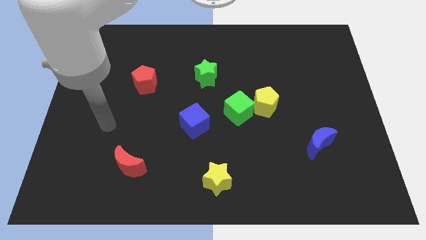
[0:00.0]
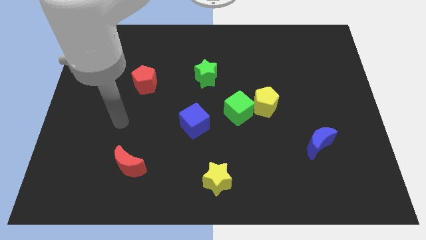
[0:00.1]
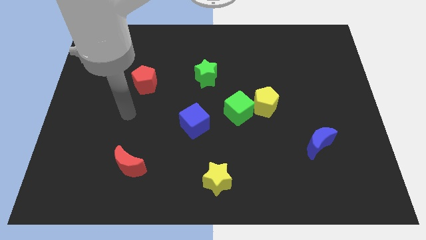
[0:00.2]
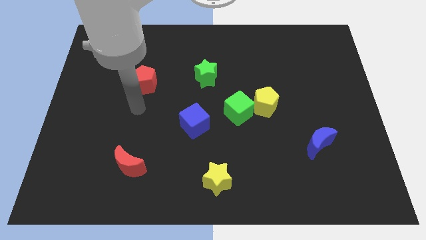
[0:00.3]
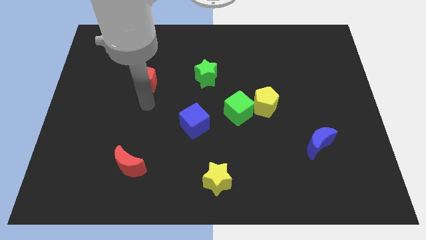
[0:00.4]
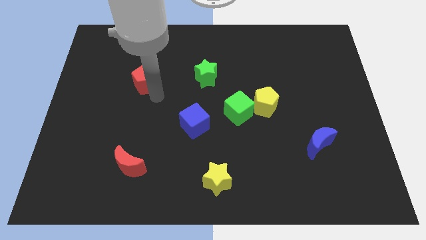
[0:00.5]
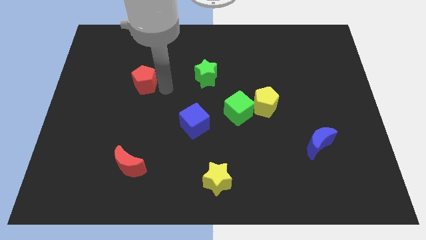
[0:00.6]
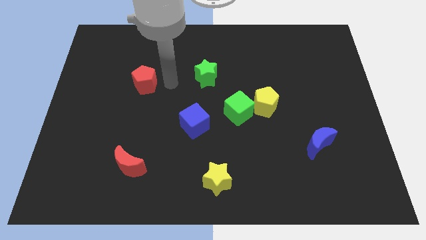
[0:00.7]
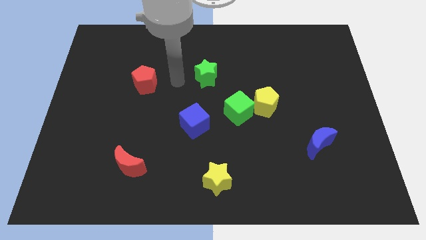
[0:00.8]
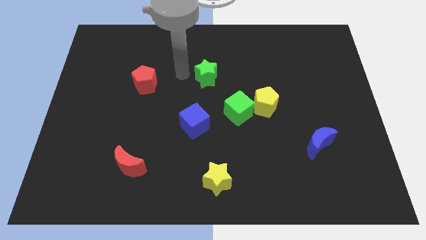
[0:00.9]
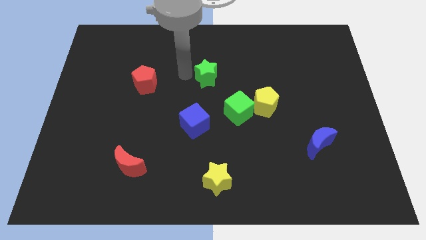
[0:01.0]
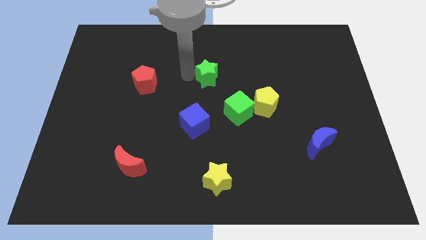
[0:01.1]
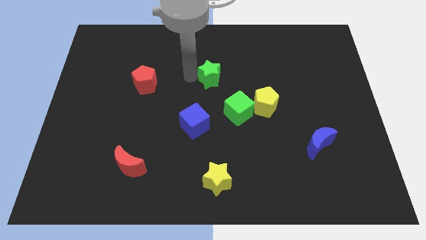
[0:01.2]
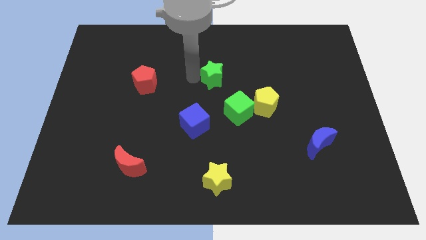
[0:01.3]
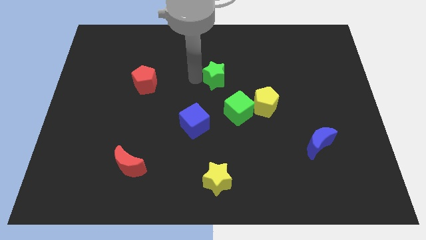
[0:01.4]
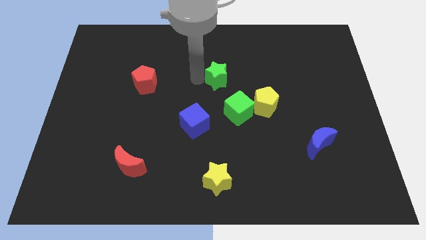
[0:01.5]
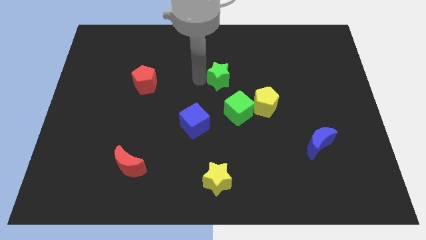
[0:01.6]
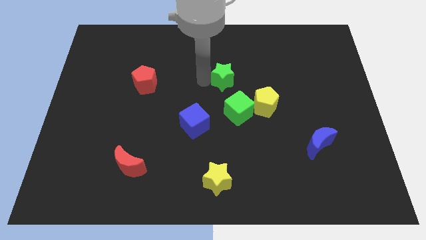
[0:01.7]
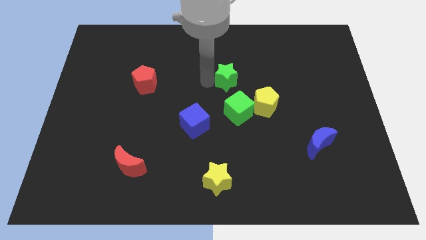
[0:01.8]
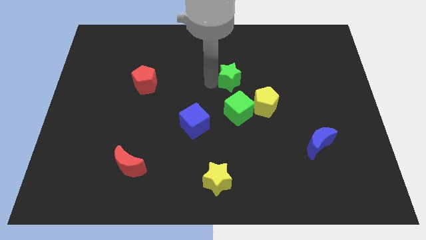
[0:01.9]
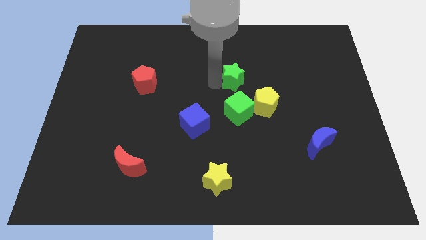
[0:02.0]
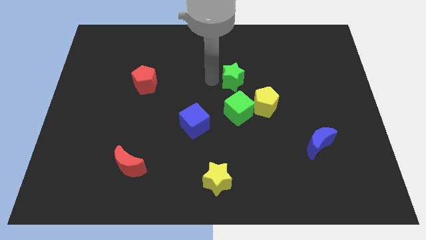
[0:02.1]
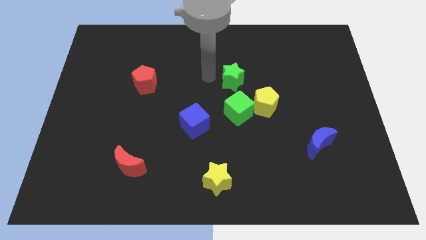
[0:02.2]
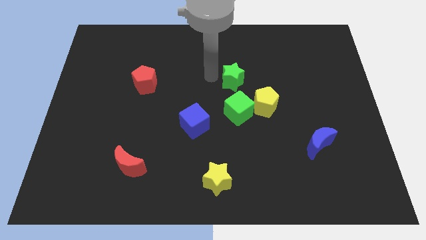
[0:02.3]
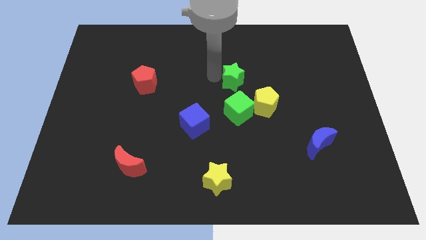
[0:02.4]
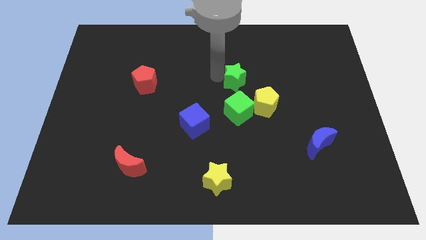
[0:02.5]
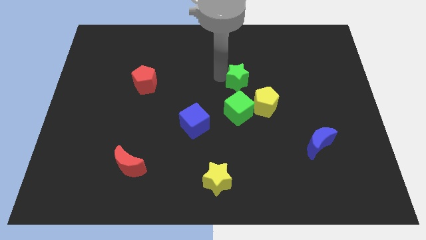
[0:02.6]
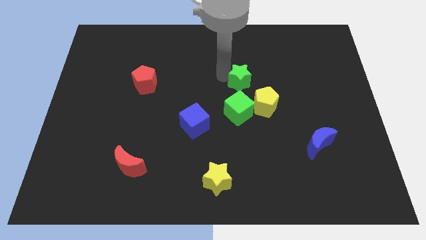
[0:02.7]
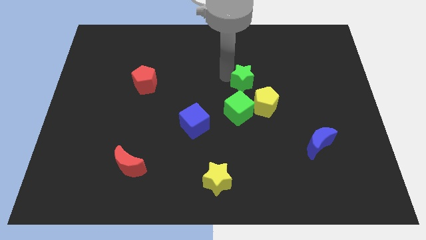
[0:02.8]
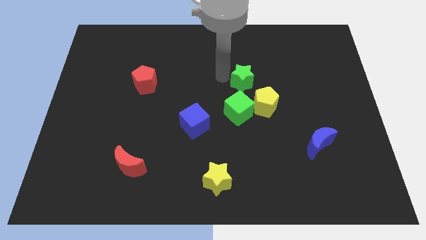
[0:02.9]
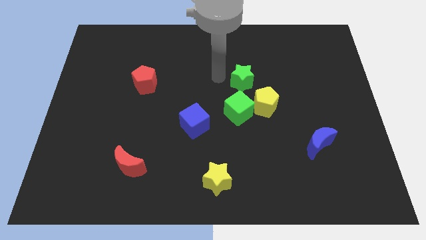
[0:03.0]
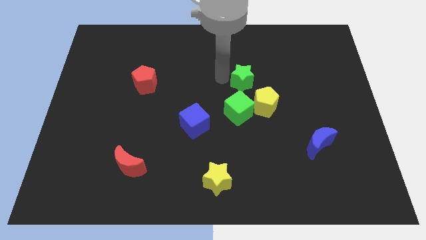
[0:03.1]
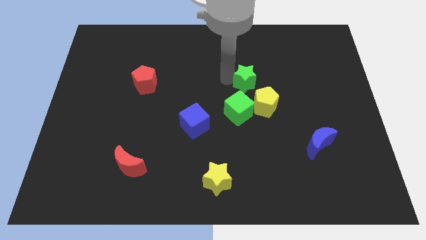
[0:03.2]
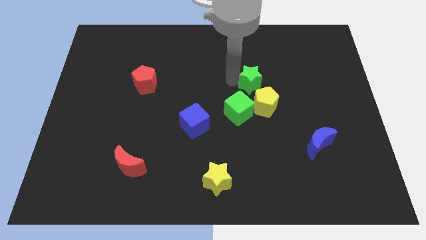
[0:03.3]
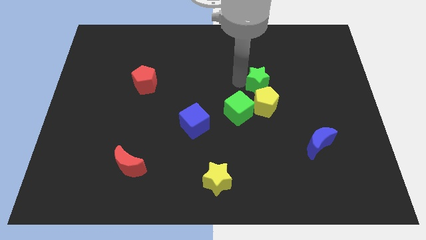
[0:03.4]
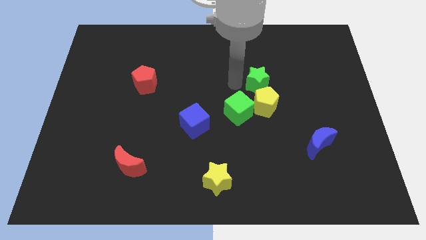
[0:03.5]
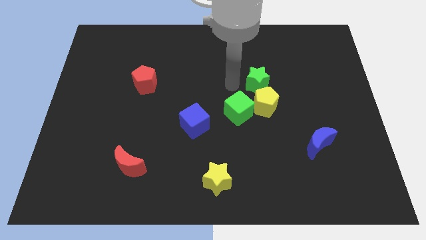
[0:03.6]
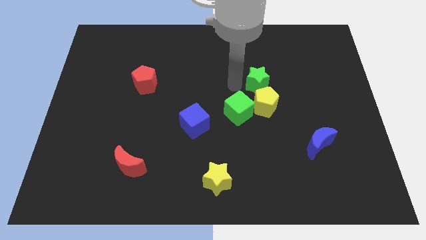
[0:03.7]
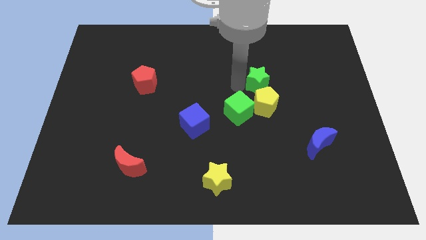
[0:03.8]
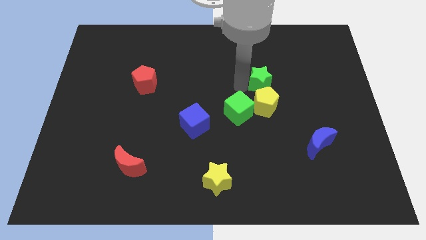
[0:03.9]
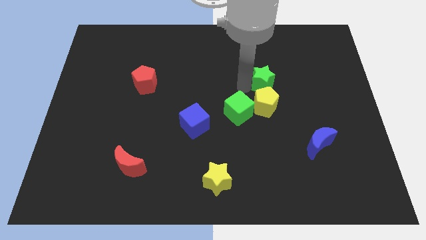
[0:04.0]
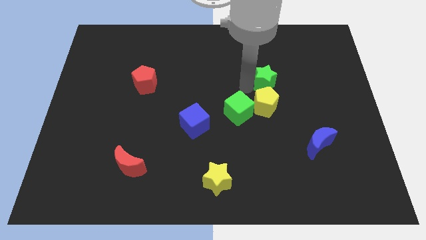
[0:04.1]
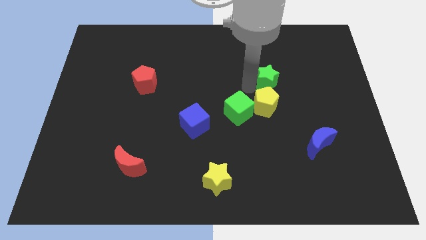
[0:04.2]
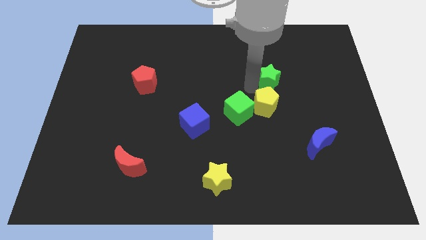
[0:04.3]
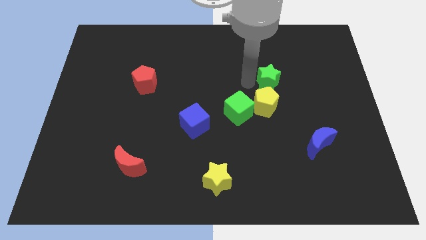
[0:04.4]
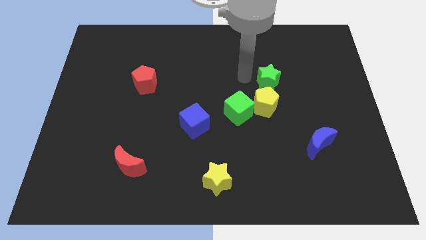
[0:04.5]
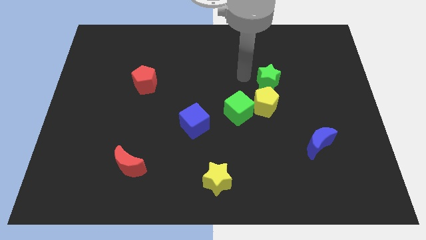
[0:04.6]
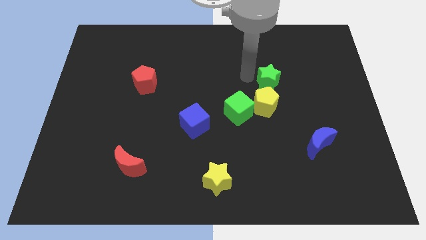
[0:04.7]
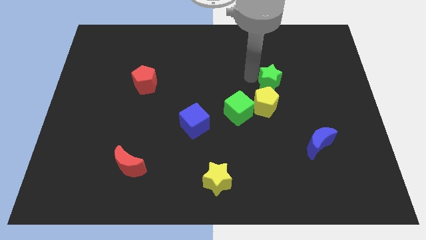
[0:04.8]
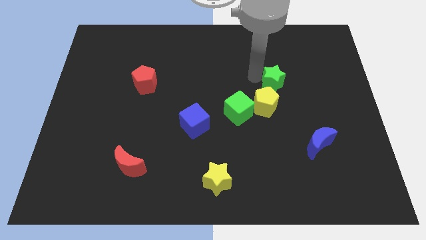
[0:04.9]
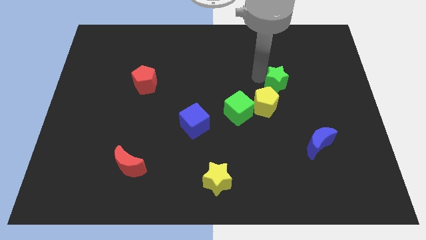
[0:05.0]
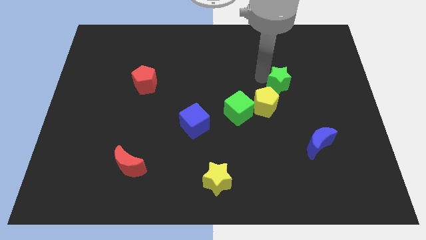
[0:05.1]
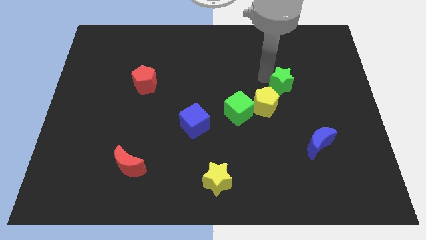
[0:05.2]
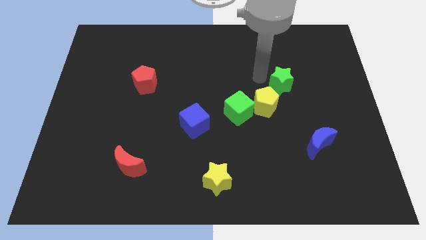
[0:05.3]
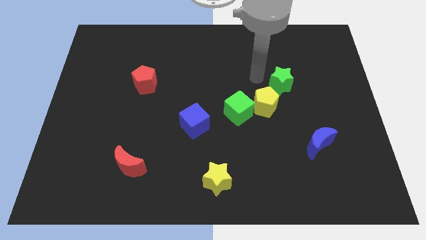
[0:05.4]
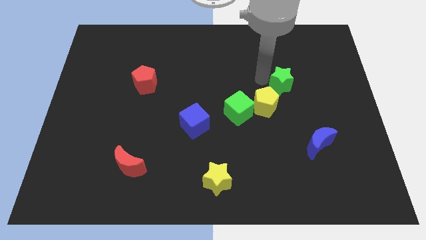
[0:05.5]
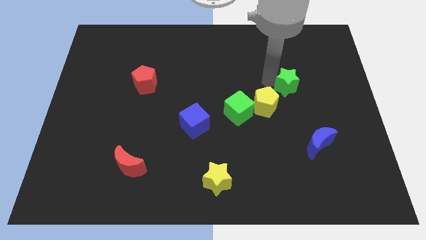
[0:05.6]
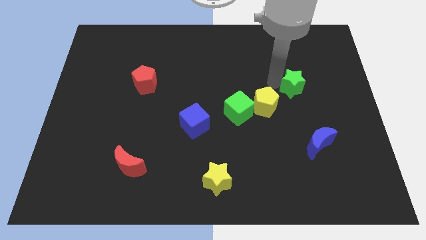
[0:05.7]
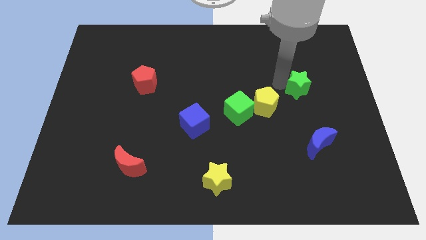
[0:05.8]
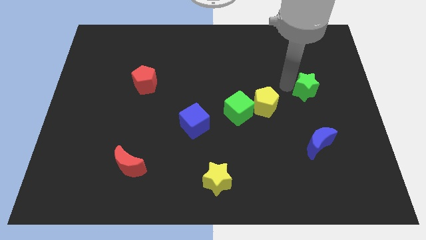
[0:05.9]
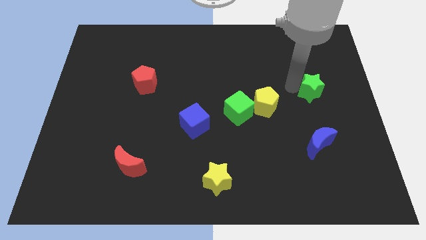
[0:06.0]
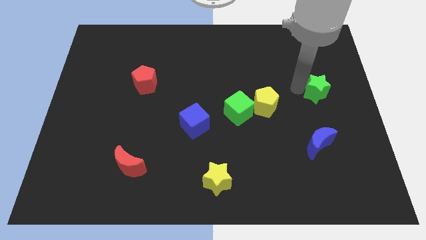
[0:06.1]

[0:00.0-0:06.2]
push the green star to the right side

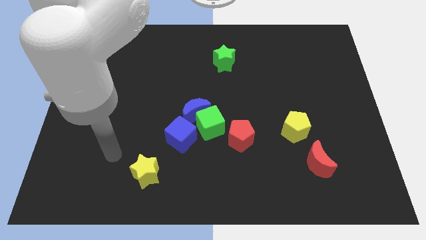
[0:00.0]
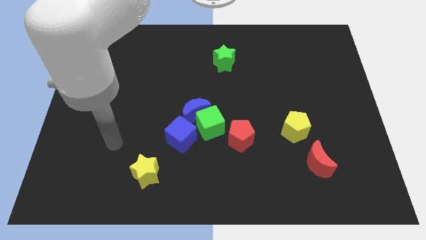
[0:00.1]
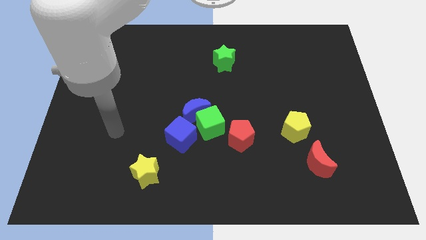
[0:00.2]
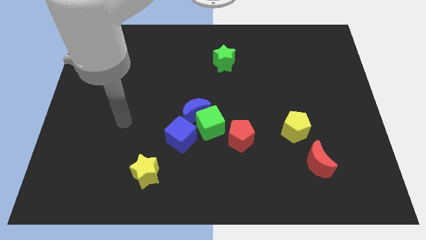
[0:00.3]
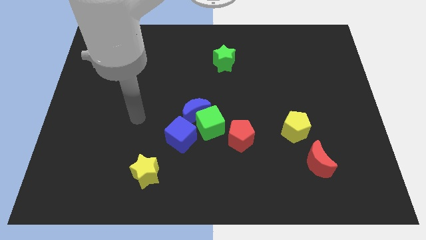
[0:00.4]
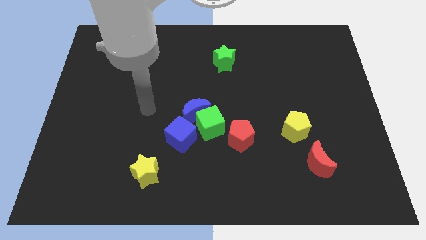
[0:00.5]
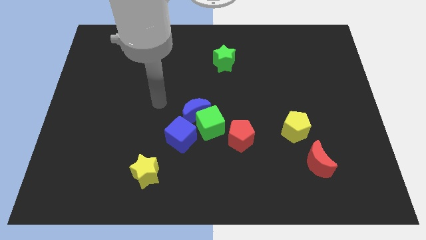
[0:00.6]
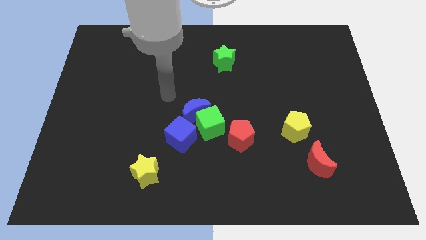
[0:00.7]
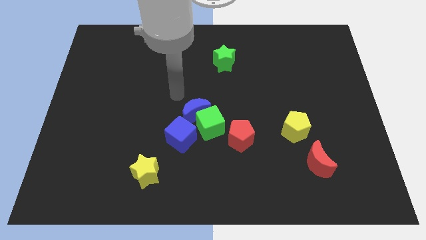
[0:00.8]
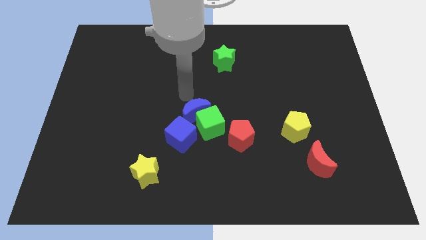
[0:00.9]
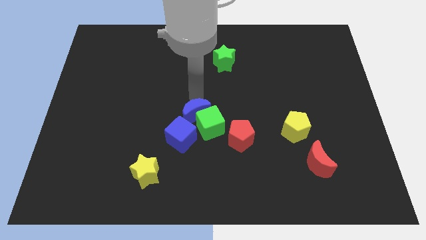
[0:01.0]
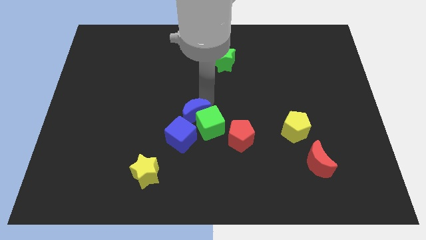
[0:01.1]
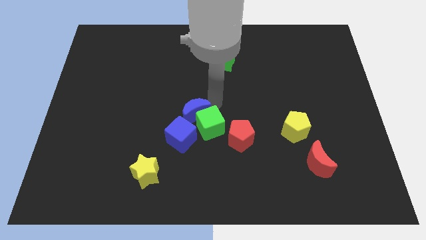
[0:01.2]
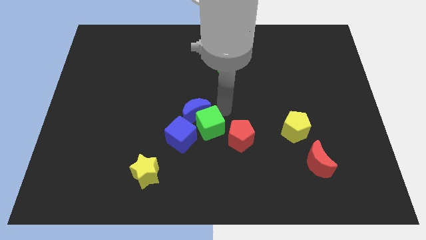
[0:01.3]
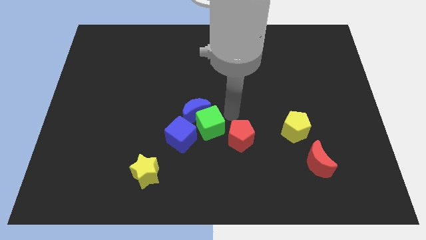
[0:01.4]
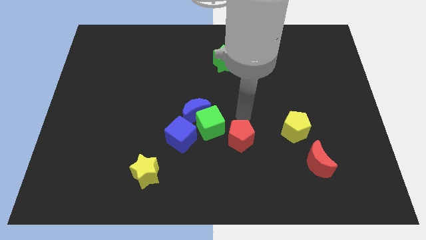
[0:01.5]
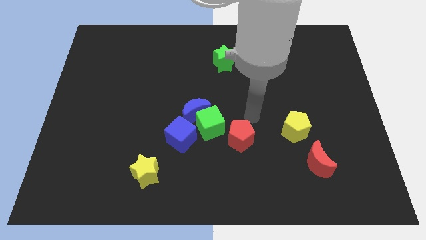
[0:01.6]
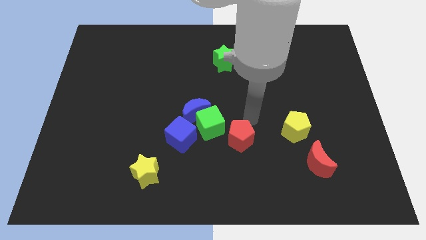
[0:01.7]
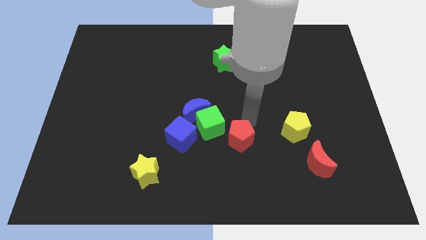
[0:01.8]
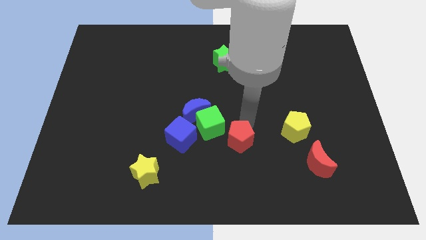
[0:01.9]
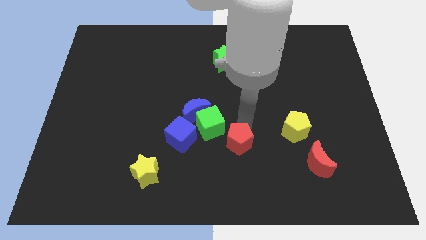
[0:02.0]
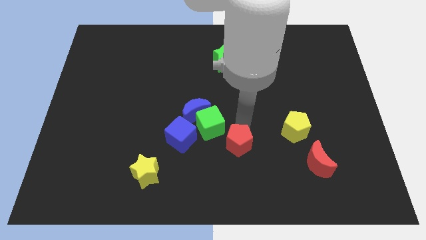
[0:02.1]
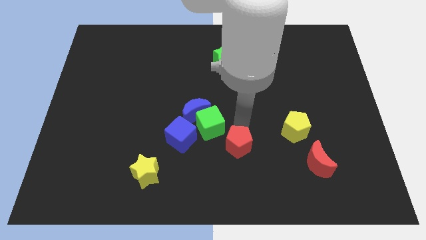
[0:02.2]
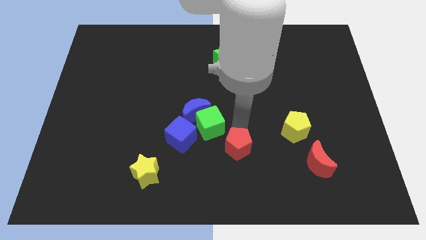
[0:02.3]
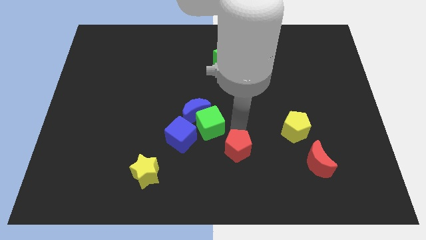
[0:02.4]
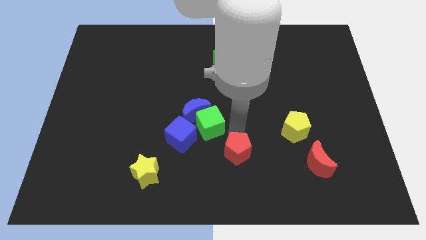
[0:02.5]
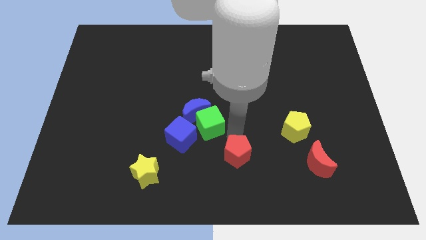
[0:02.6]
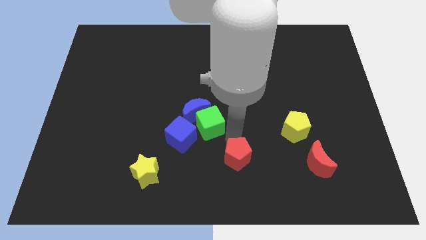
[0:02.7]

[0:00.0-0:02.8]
push the red pentagon to the bottom side
